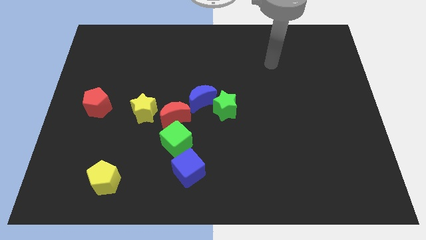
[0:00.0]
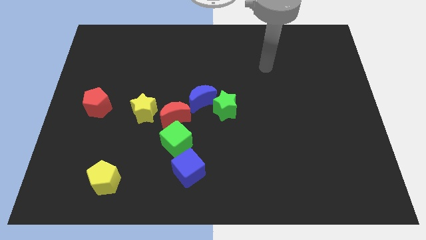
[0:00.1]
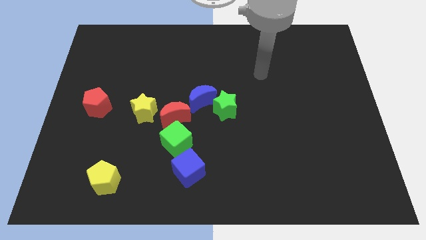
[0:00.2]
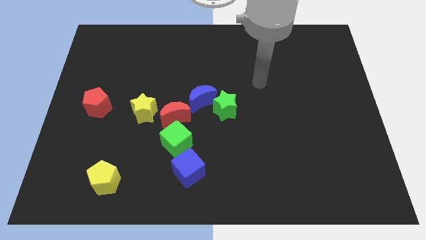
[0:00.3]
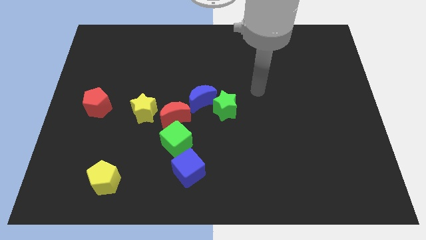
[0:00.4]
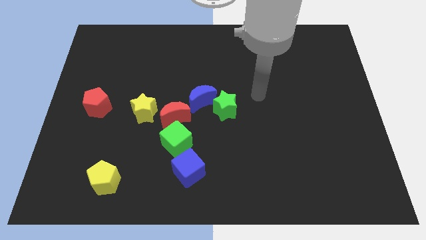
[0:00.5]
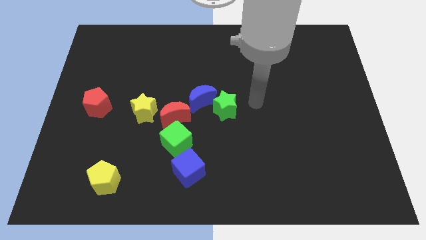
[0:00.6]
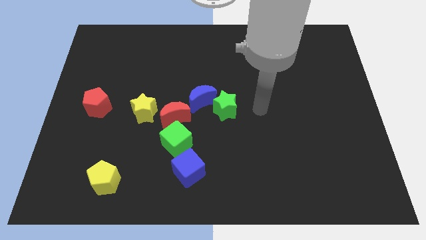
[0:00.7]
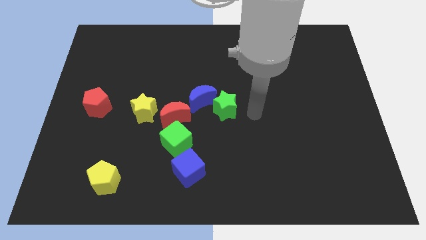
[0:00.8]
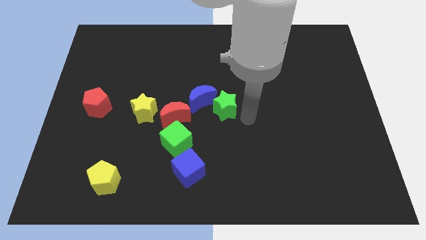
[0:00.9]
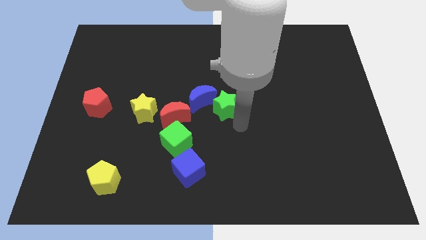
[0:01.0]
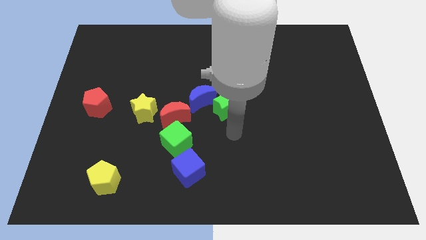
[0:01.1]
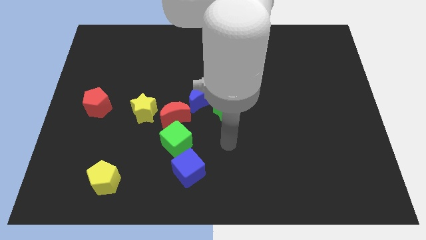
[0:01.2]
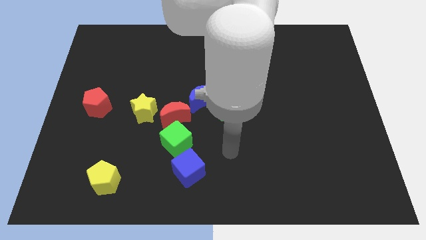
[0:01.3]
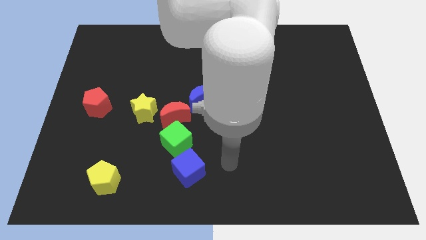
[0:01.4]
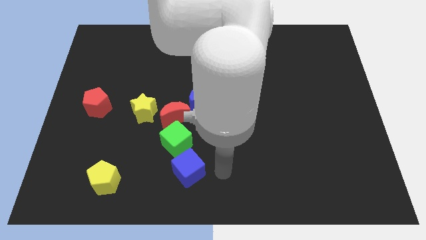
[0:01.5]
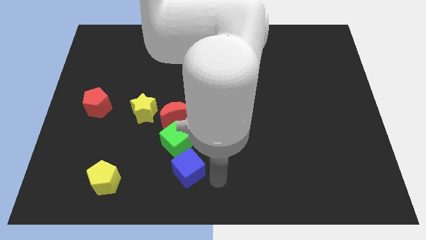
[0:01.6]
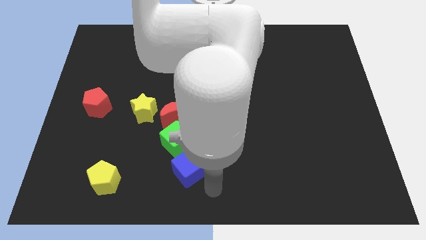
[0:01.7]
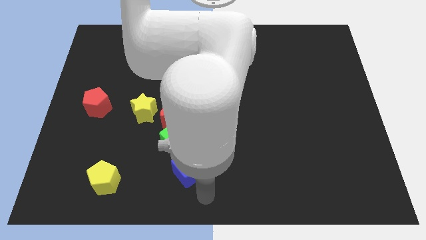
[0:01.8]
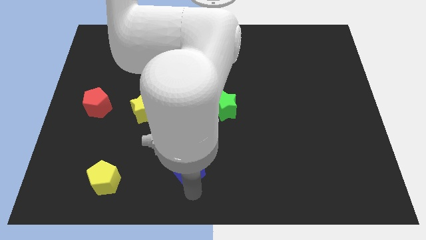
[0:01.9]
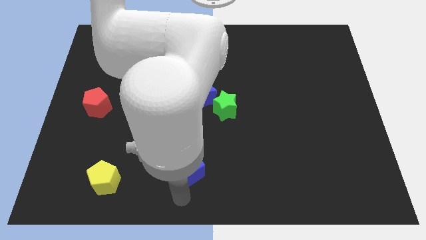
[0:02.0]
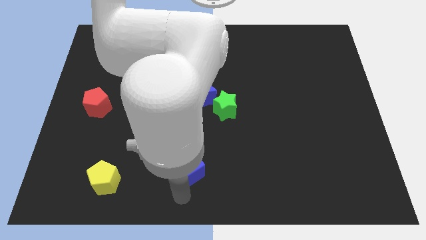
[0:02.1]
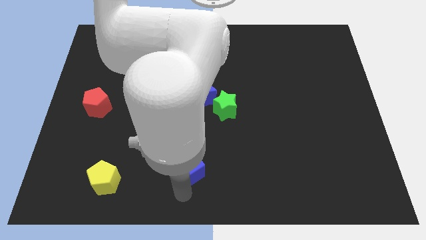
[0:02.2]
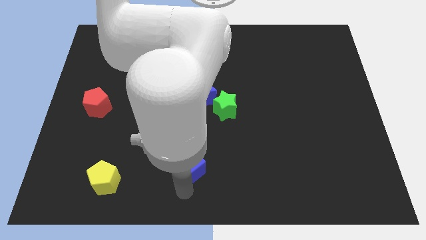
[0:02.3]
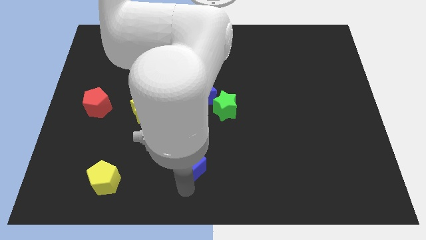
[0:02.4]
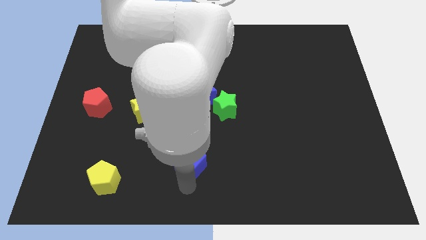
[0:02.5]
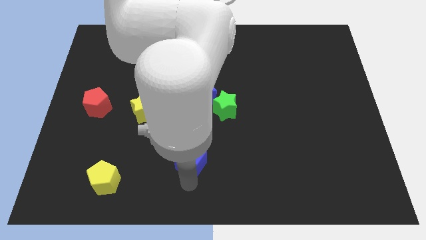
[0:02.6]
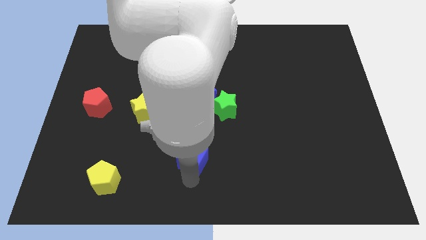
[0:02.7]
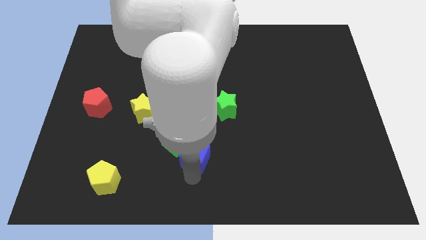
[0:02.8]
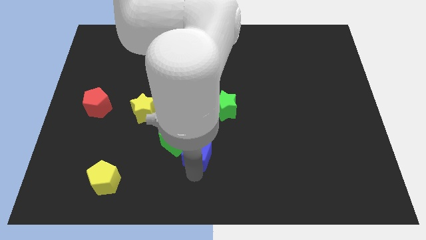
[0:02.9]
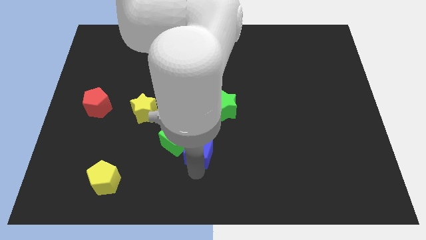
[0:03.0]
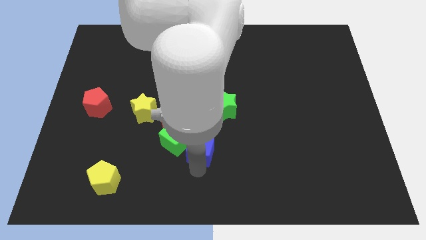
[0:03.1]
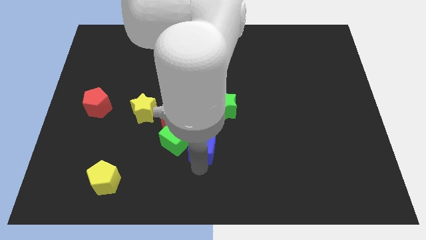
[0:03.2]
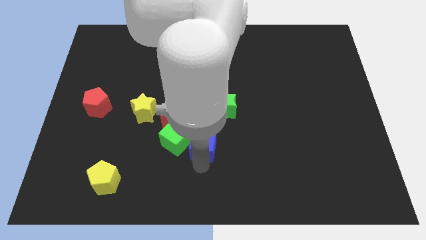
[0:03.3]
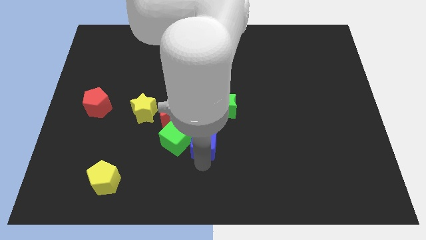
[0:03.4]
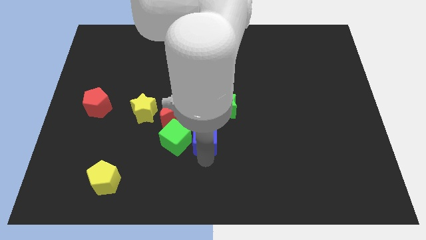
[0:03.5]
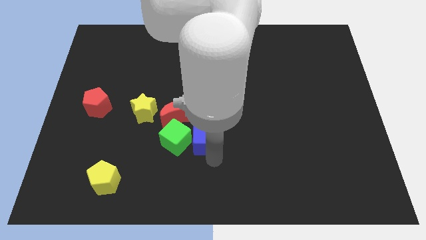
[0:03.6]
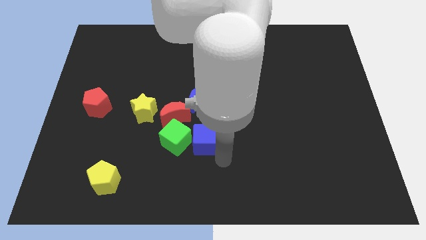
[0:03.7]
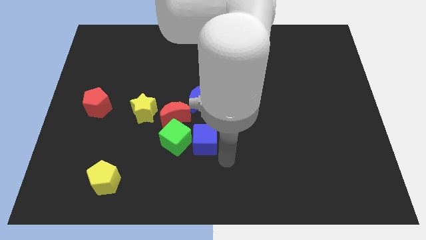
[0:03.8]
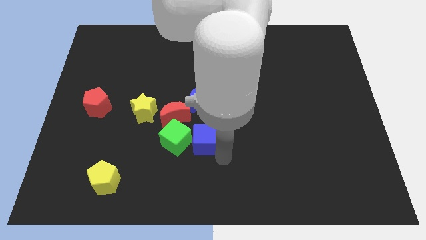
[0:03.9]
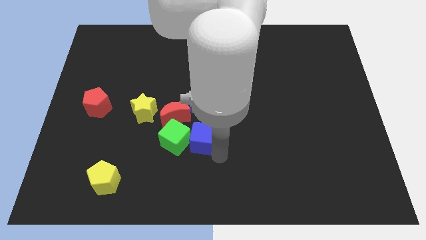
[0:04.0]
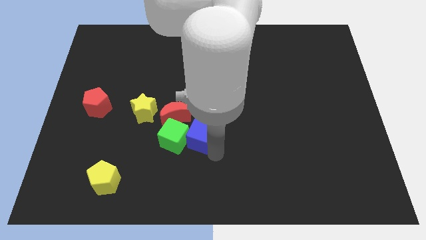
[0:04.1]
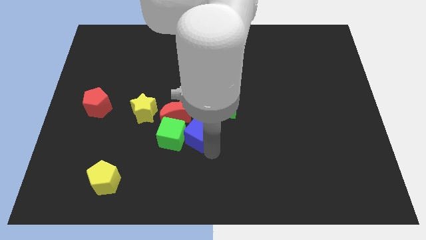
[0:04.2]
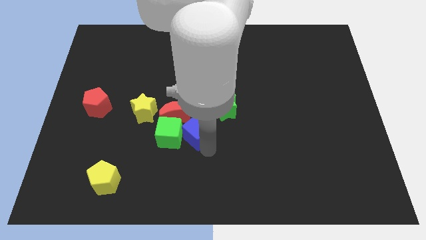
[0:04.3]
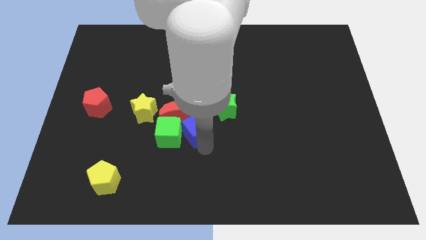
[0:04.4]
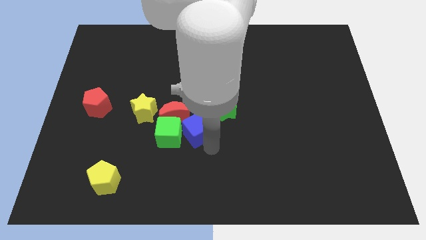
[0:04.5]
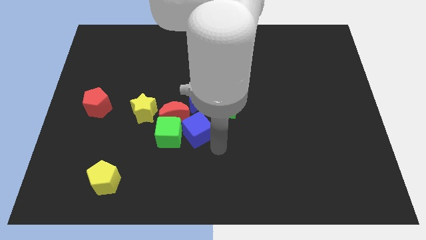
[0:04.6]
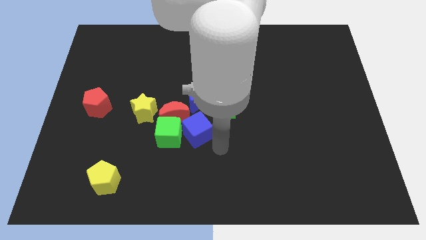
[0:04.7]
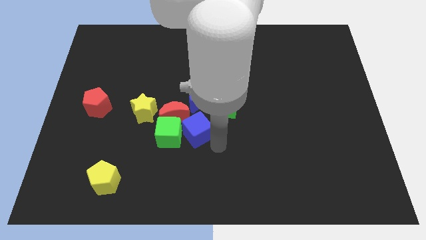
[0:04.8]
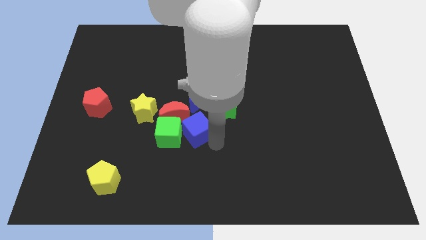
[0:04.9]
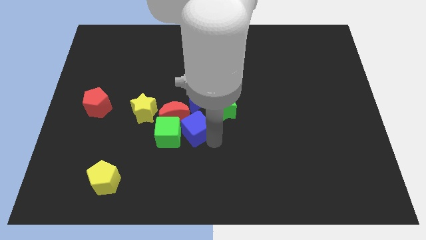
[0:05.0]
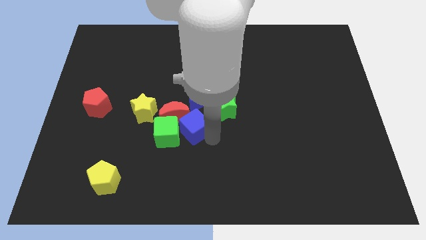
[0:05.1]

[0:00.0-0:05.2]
put the blue cube to the red moon

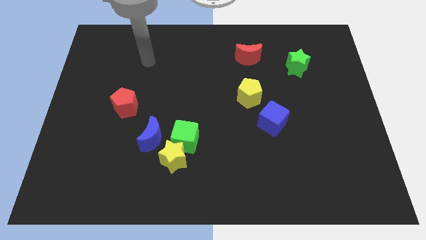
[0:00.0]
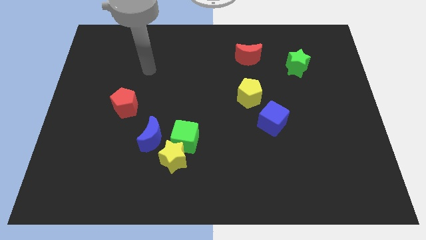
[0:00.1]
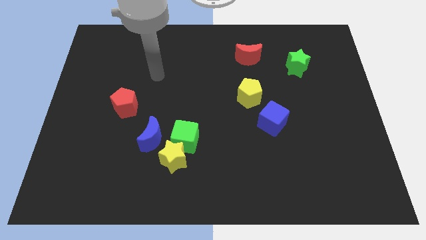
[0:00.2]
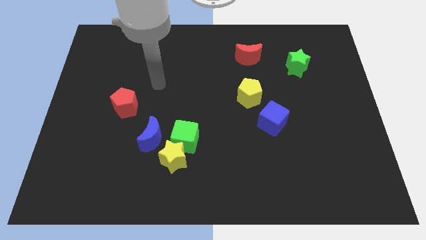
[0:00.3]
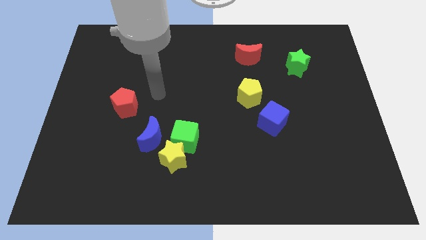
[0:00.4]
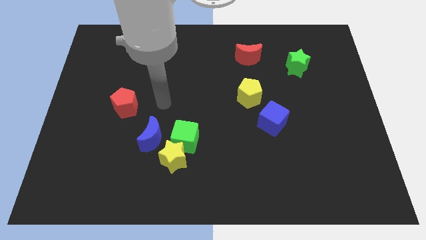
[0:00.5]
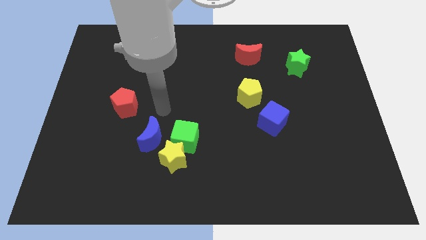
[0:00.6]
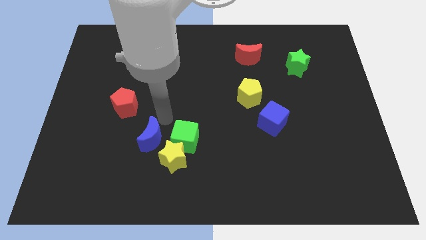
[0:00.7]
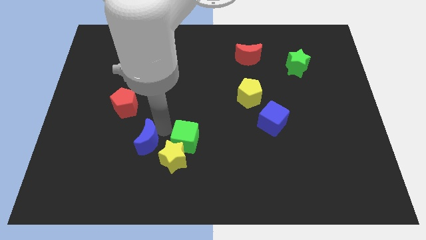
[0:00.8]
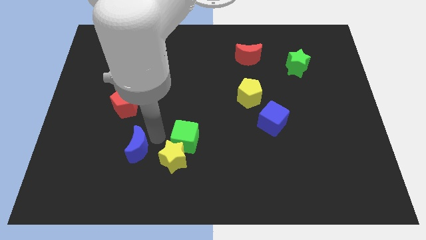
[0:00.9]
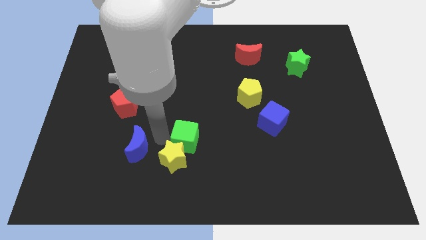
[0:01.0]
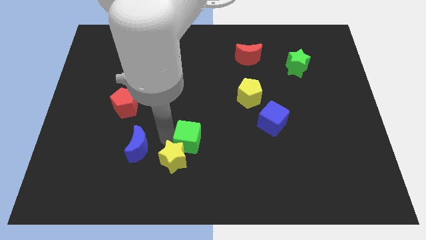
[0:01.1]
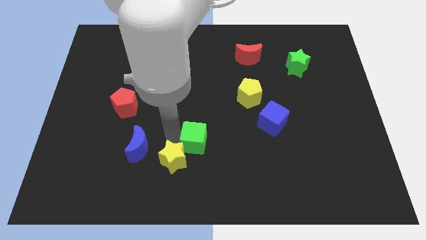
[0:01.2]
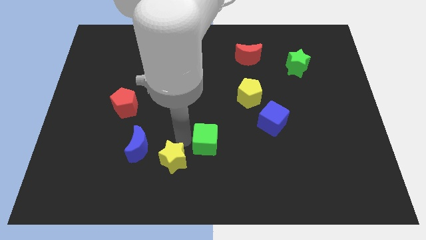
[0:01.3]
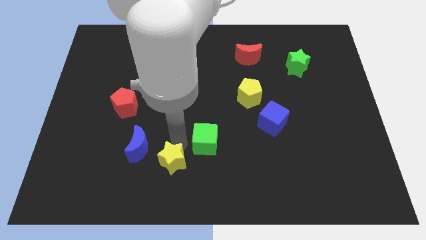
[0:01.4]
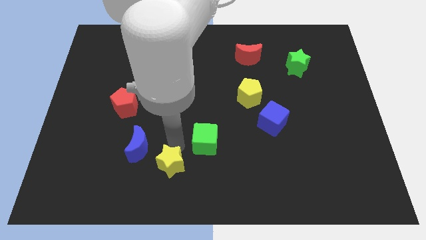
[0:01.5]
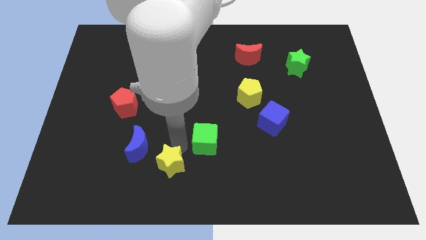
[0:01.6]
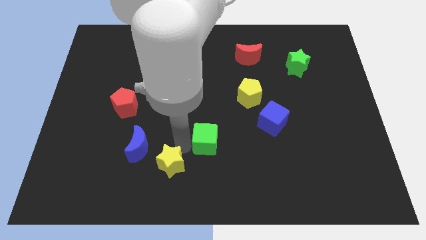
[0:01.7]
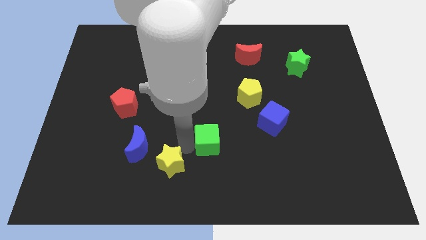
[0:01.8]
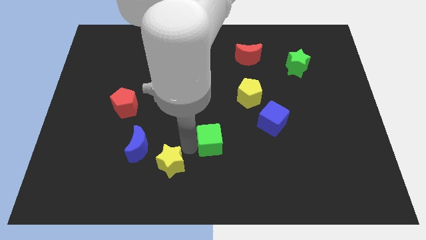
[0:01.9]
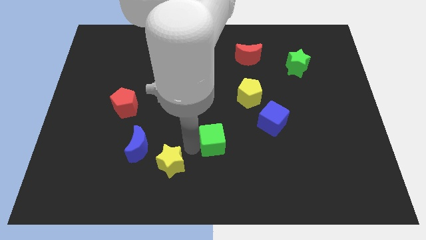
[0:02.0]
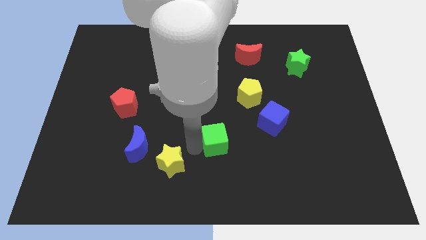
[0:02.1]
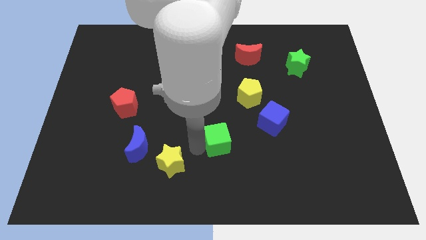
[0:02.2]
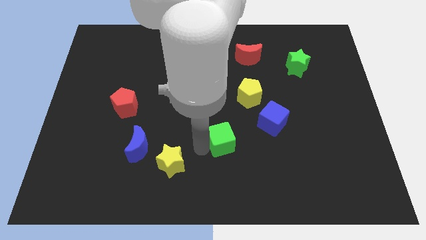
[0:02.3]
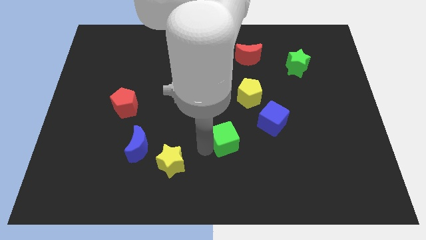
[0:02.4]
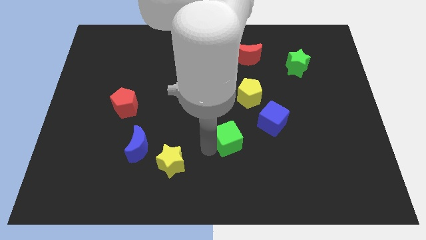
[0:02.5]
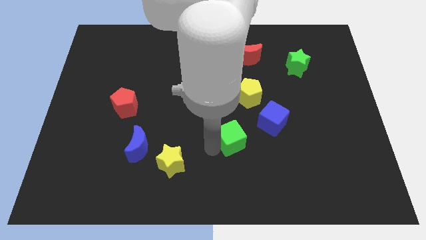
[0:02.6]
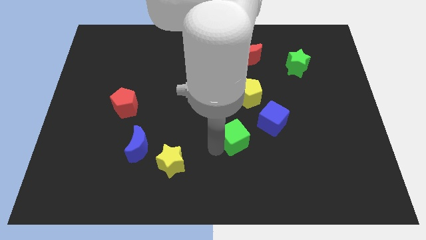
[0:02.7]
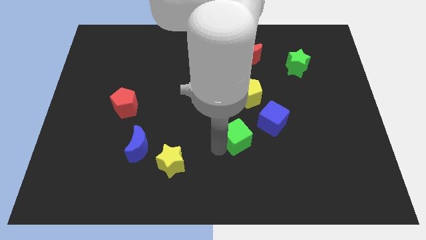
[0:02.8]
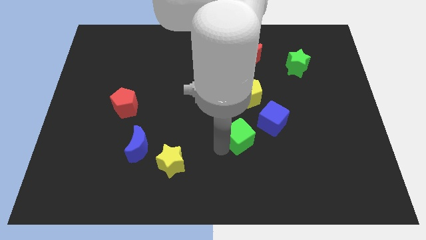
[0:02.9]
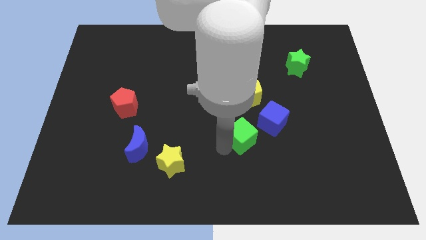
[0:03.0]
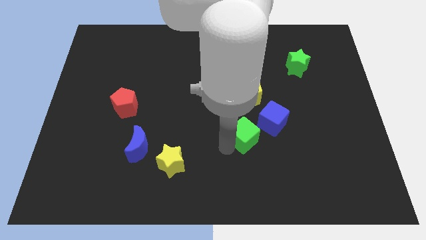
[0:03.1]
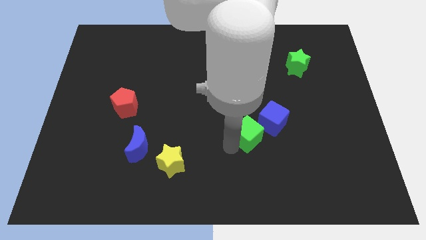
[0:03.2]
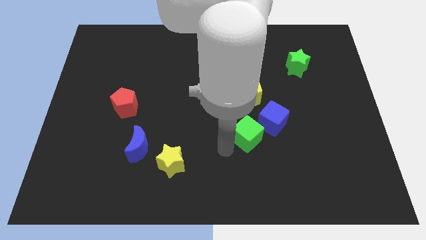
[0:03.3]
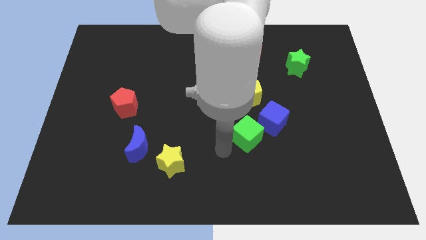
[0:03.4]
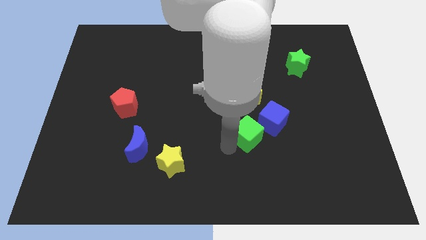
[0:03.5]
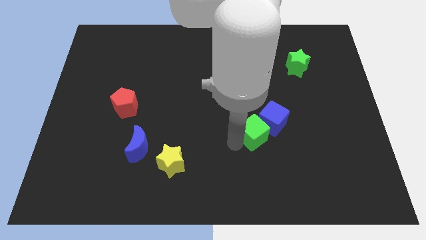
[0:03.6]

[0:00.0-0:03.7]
put the green cube next to the blue cube
